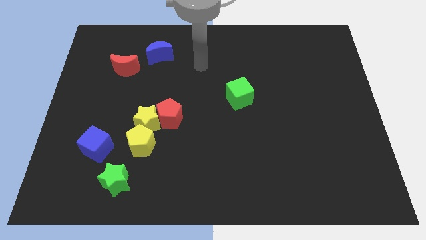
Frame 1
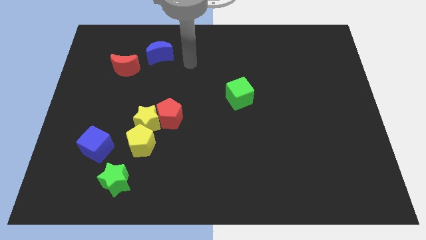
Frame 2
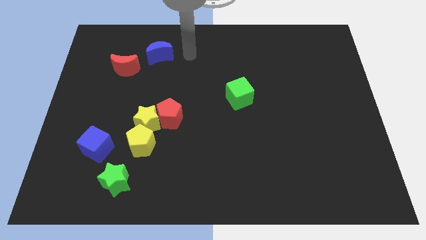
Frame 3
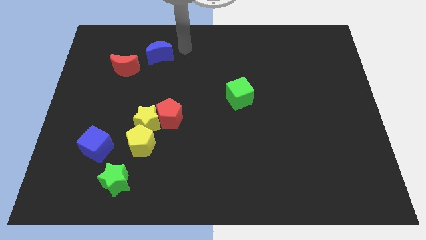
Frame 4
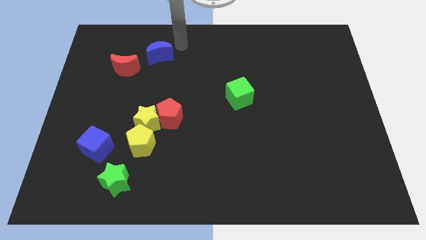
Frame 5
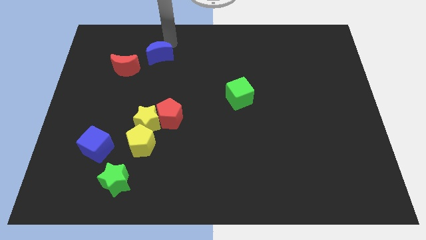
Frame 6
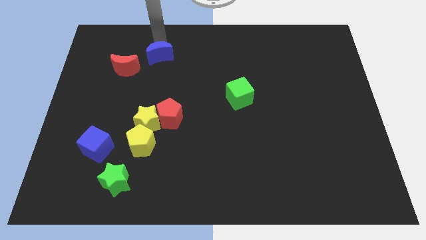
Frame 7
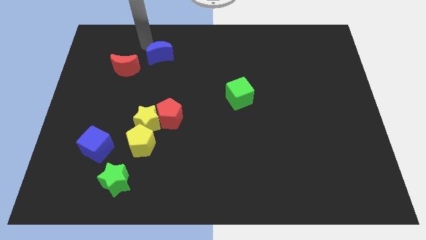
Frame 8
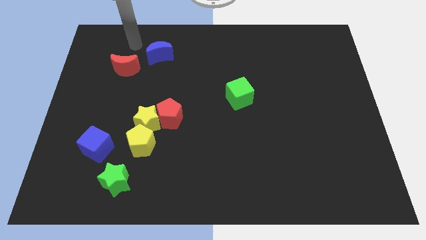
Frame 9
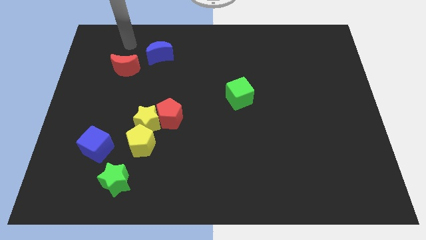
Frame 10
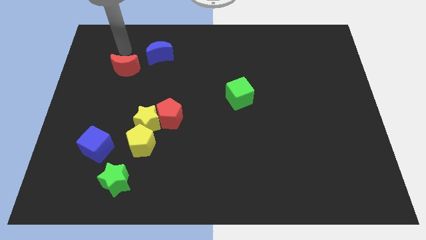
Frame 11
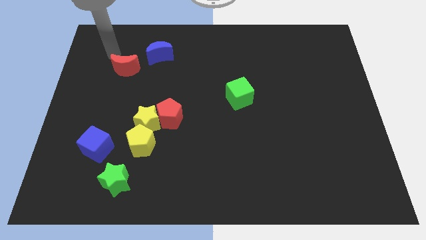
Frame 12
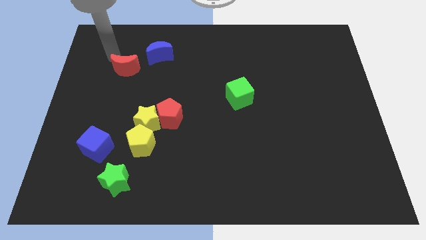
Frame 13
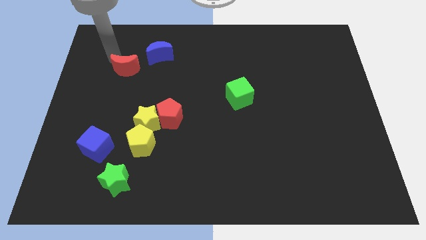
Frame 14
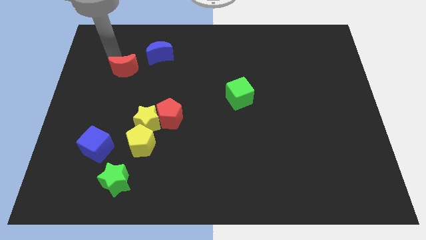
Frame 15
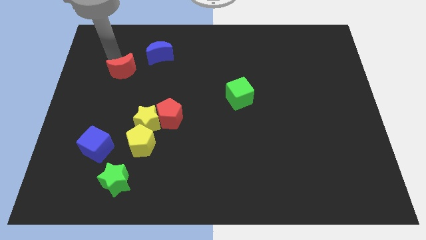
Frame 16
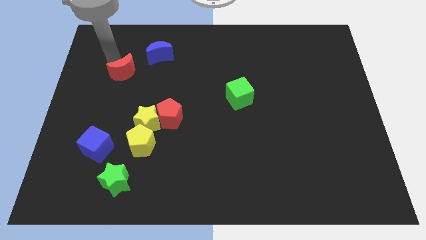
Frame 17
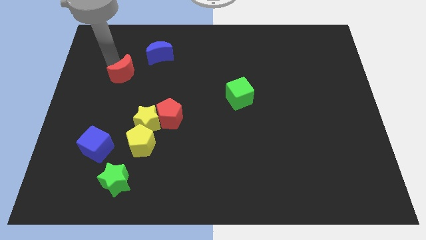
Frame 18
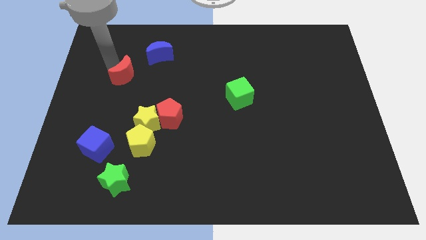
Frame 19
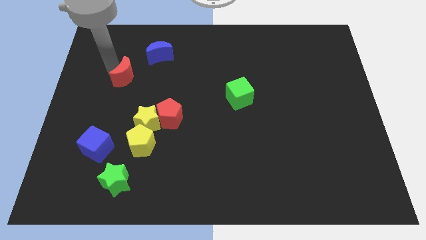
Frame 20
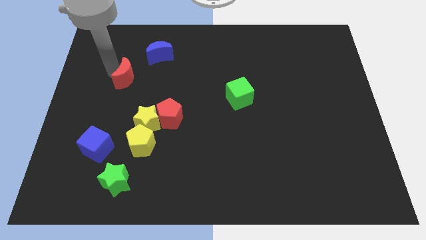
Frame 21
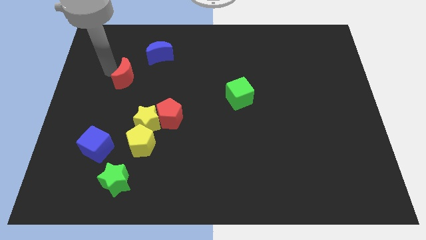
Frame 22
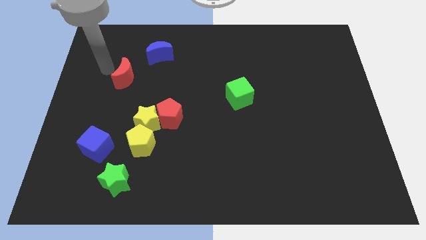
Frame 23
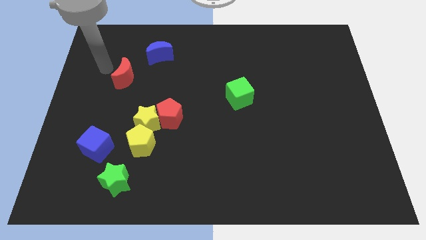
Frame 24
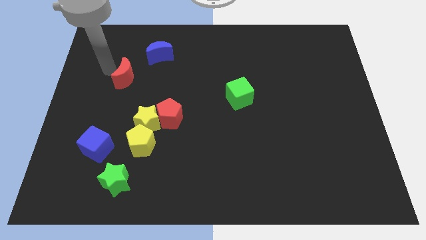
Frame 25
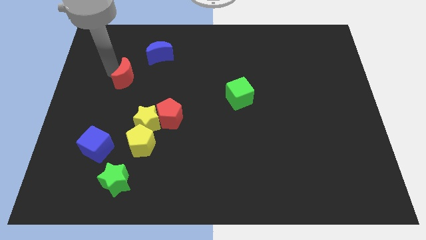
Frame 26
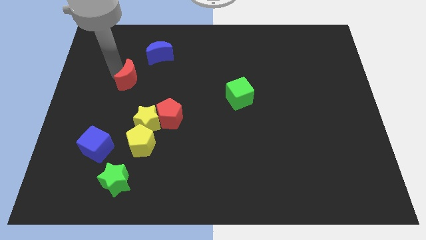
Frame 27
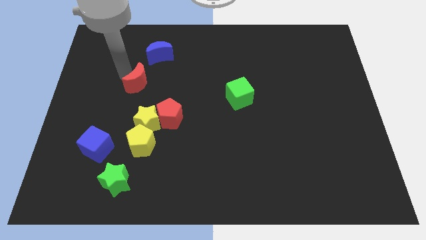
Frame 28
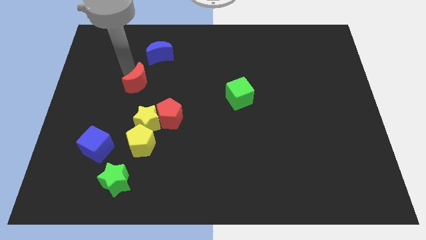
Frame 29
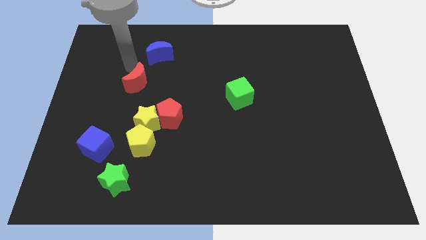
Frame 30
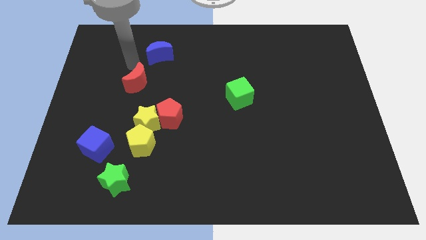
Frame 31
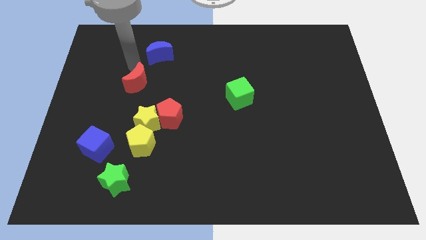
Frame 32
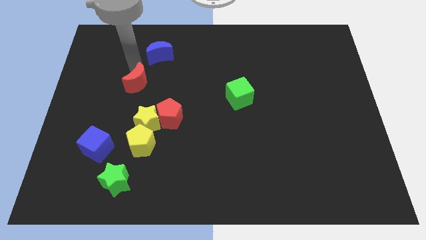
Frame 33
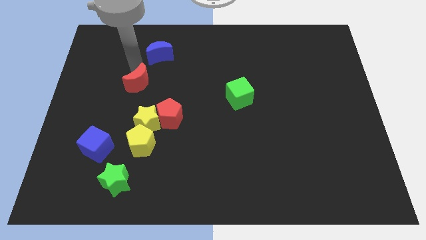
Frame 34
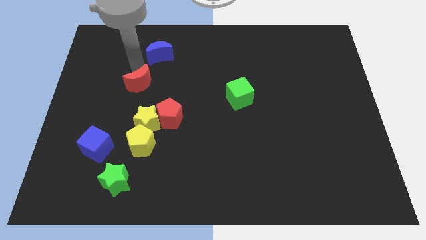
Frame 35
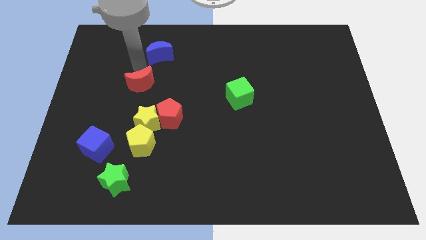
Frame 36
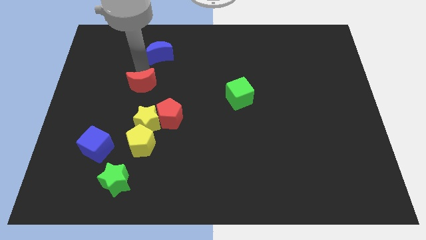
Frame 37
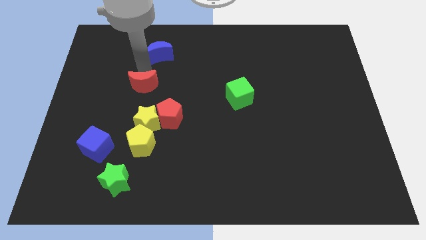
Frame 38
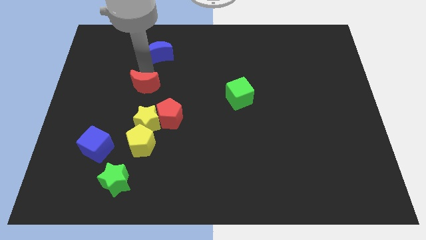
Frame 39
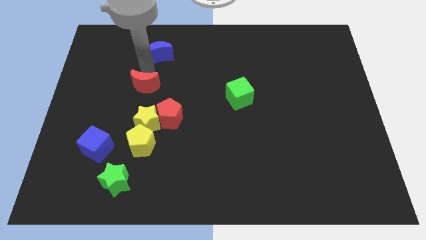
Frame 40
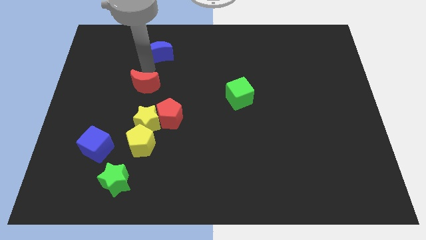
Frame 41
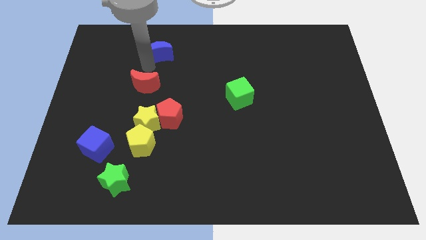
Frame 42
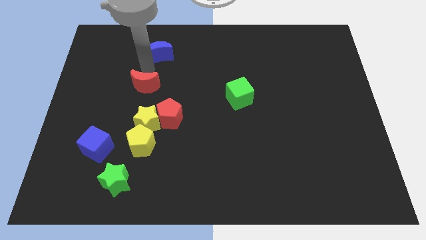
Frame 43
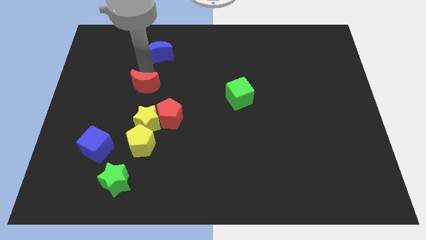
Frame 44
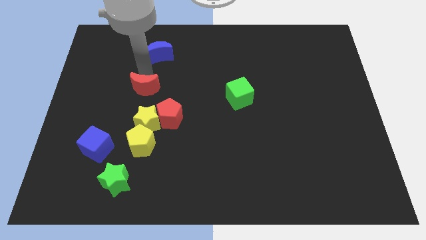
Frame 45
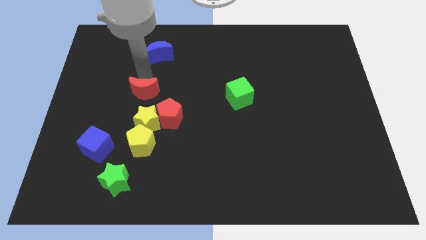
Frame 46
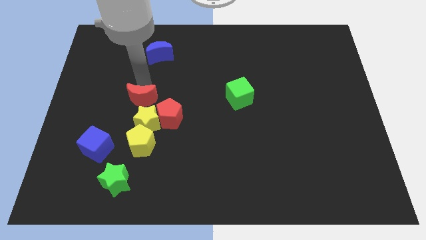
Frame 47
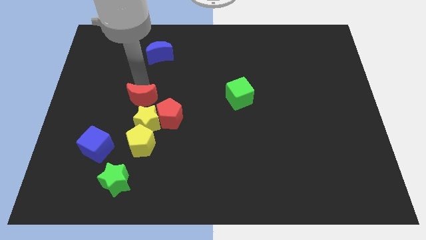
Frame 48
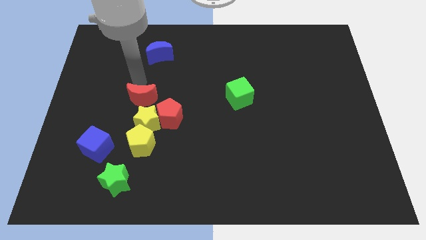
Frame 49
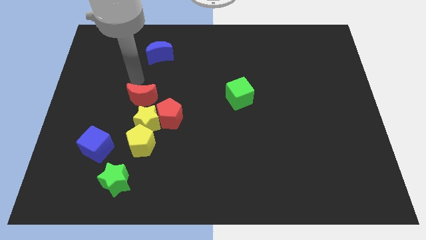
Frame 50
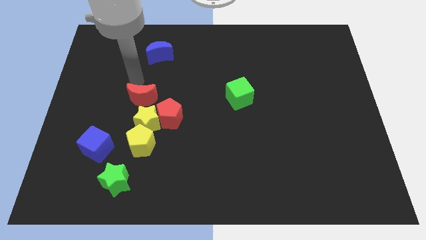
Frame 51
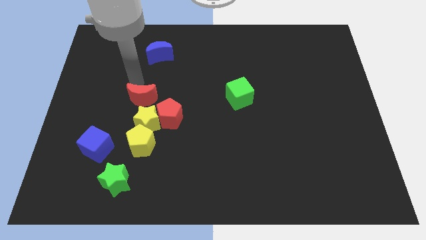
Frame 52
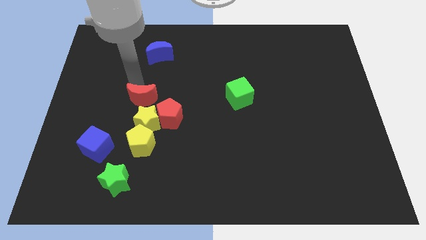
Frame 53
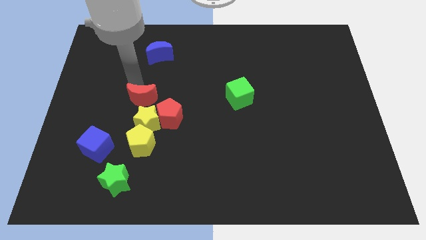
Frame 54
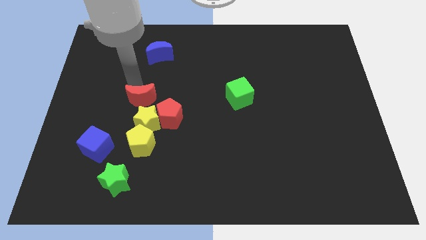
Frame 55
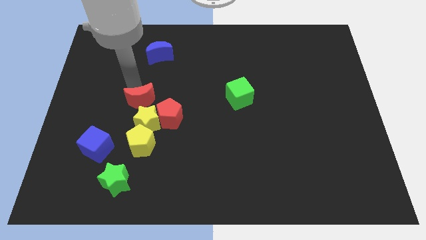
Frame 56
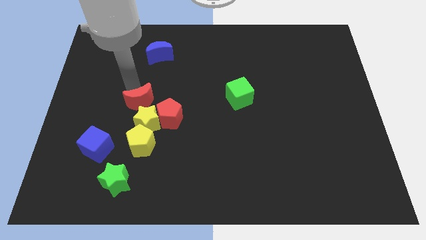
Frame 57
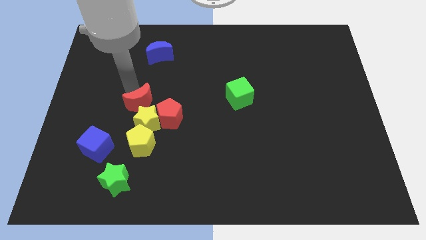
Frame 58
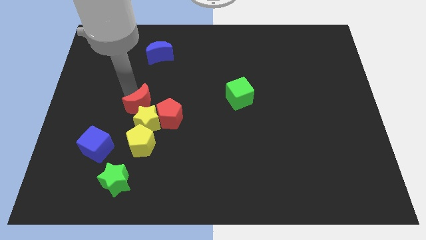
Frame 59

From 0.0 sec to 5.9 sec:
put the red moon towards the yellow star

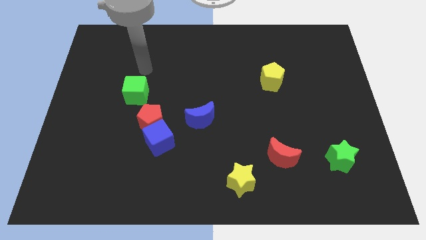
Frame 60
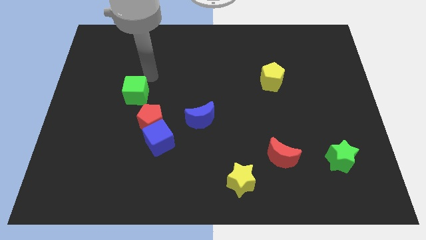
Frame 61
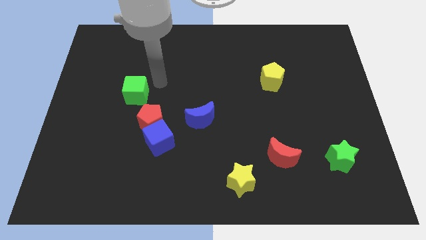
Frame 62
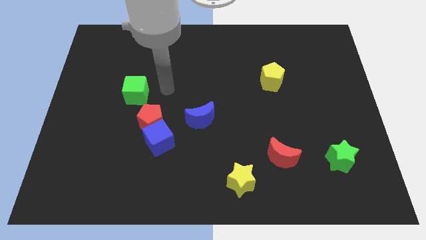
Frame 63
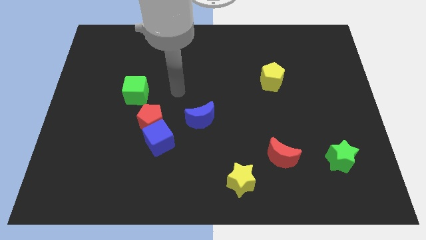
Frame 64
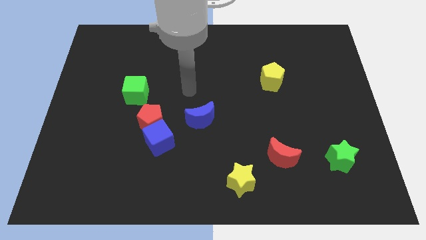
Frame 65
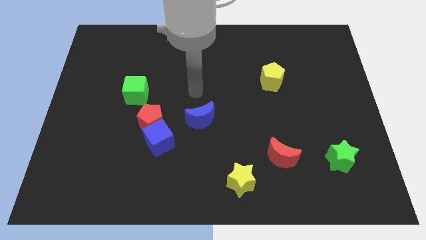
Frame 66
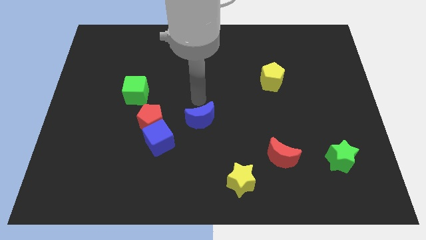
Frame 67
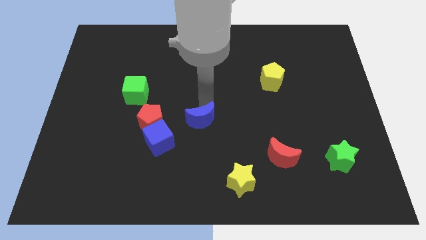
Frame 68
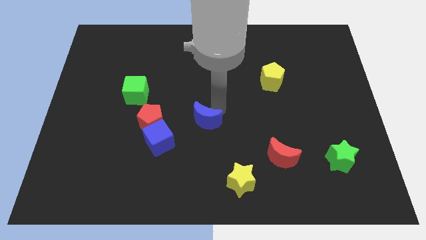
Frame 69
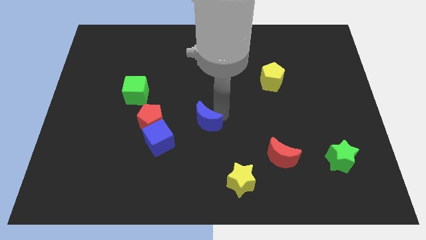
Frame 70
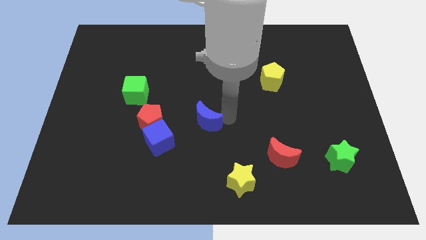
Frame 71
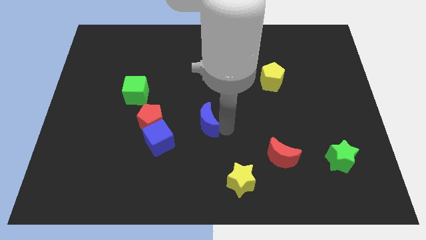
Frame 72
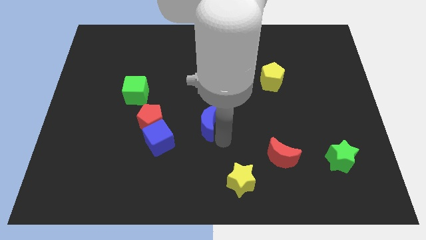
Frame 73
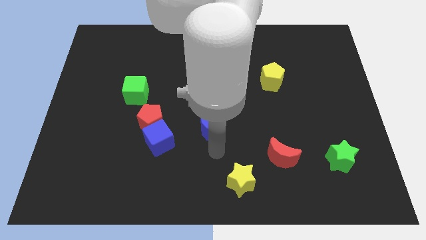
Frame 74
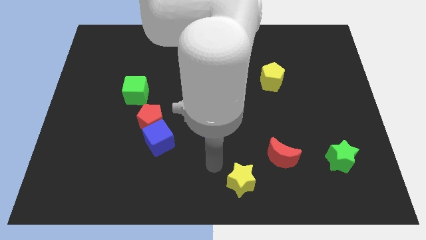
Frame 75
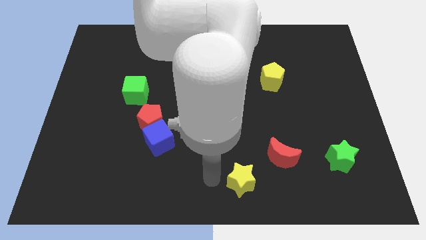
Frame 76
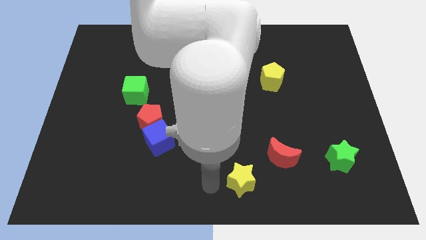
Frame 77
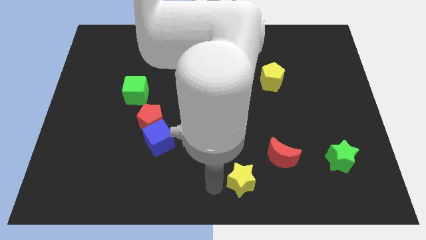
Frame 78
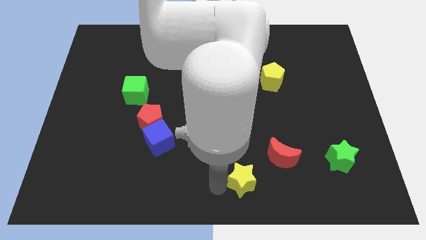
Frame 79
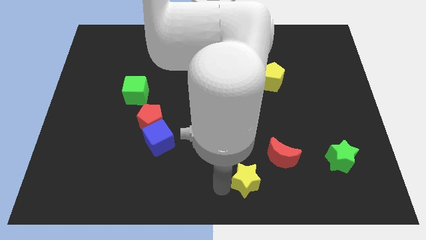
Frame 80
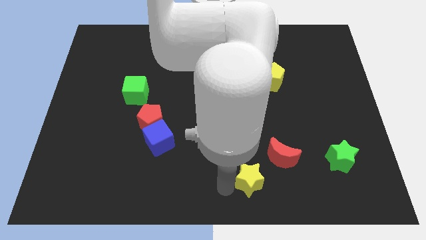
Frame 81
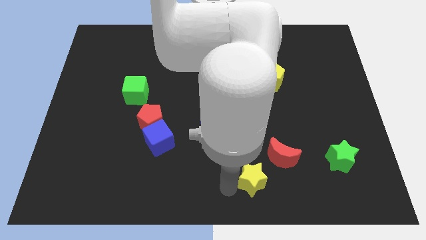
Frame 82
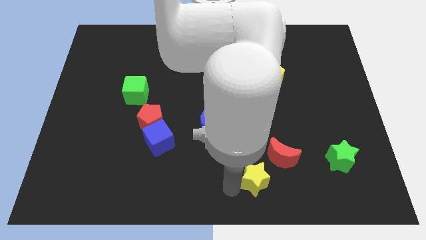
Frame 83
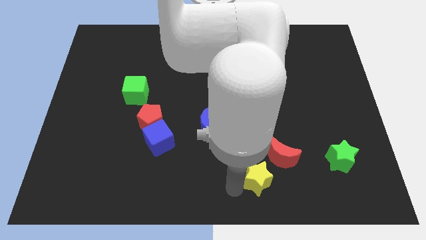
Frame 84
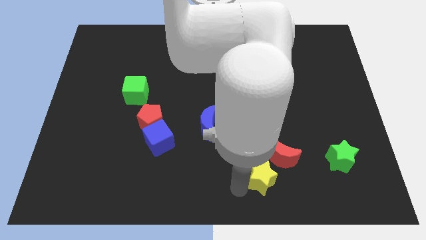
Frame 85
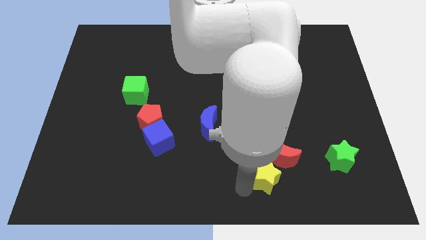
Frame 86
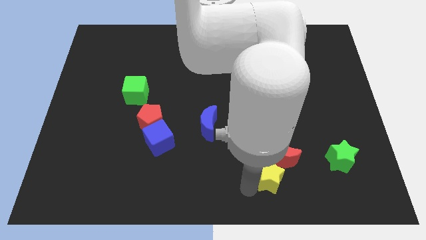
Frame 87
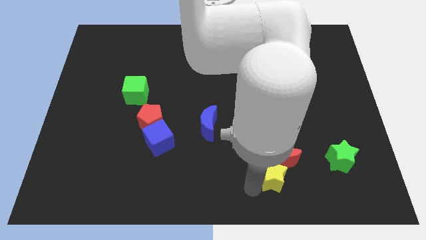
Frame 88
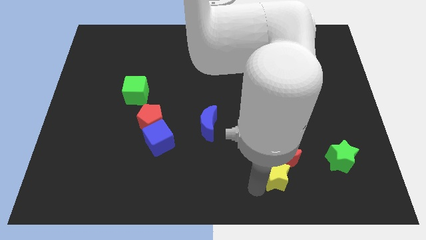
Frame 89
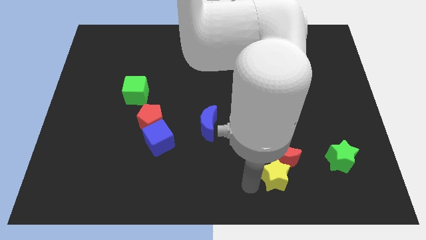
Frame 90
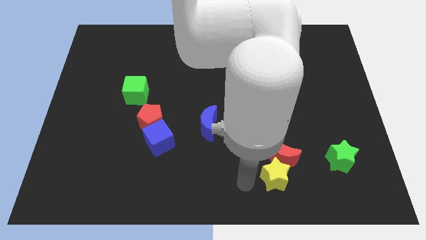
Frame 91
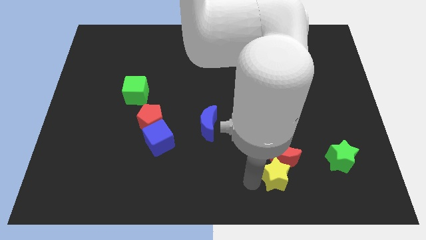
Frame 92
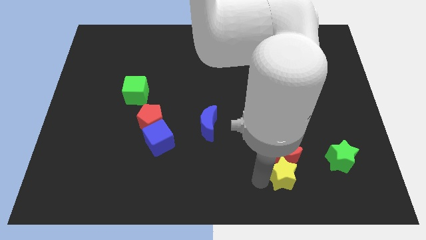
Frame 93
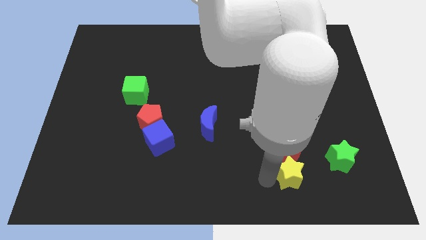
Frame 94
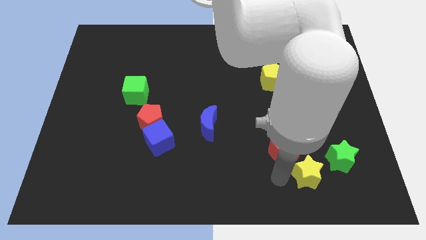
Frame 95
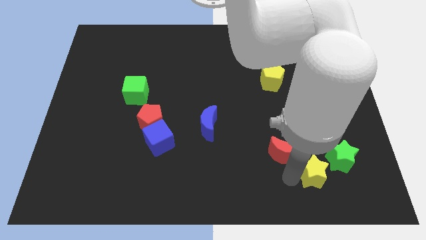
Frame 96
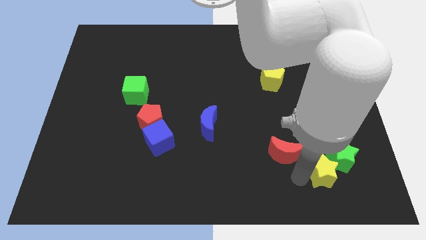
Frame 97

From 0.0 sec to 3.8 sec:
slide the yellow star to the green star
